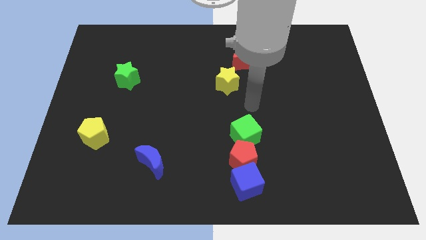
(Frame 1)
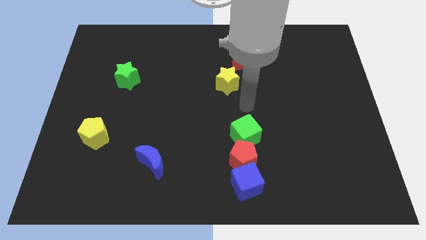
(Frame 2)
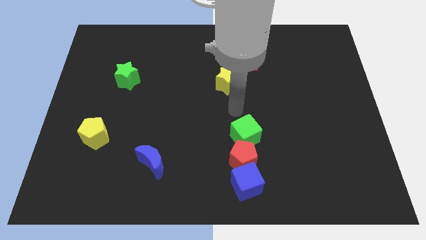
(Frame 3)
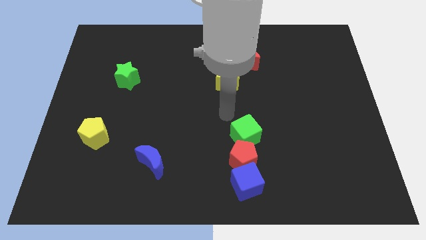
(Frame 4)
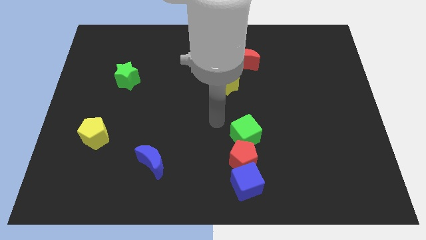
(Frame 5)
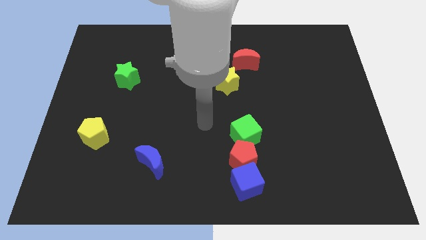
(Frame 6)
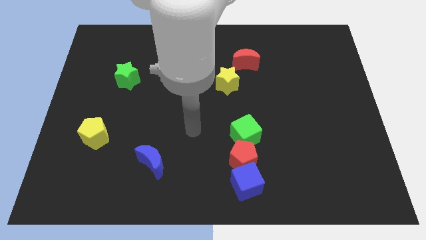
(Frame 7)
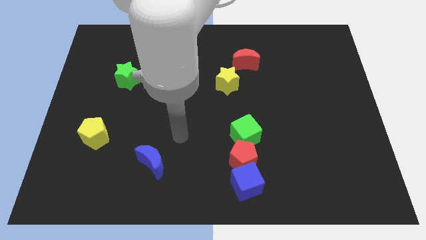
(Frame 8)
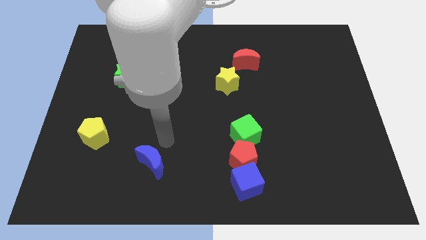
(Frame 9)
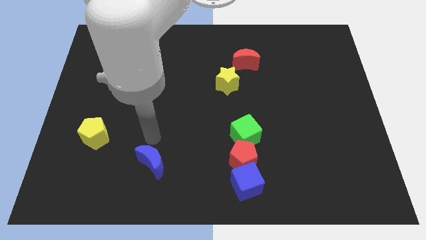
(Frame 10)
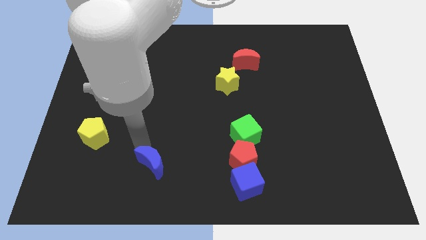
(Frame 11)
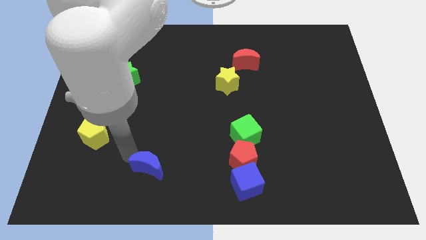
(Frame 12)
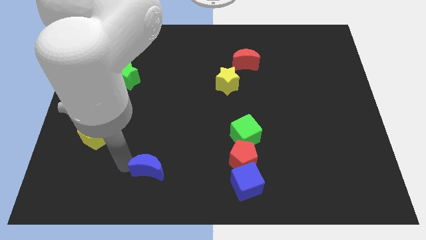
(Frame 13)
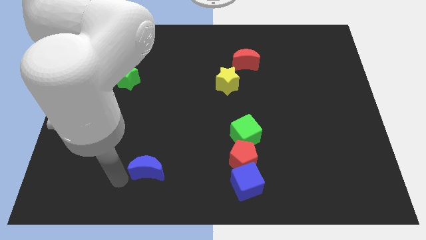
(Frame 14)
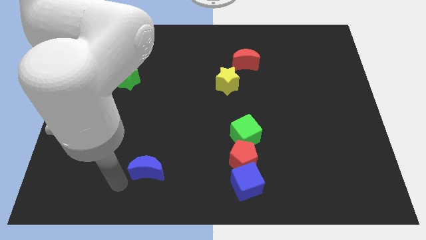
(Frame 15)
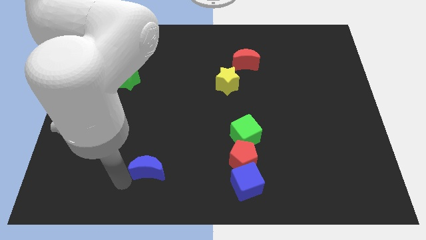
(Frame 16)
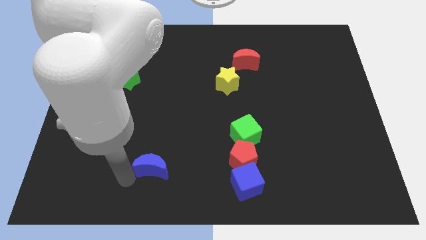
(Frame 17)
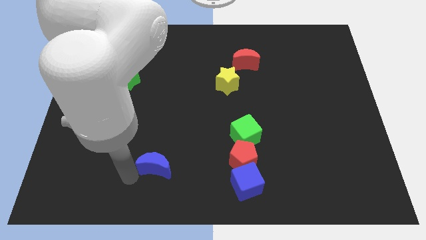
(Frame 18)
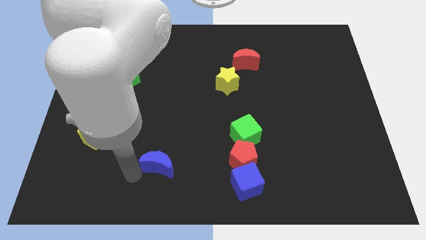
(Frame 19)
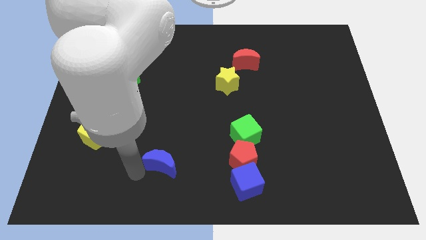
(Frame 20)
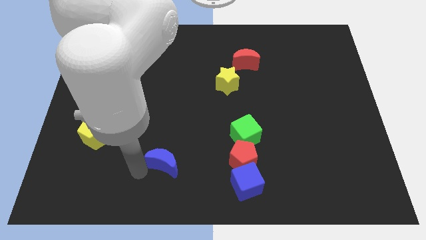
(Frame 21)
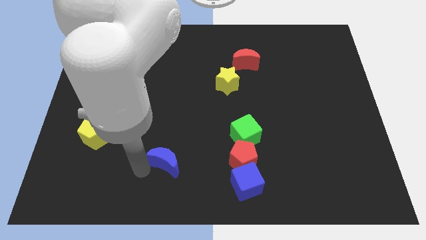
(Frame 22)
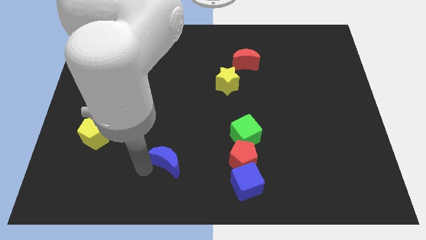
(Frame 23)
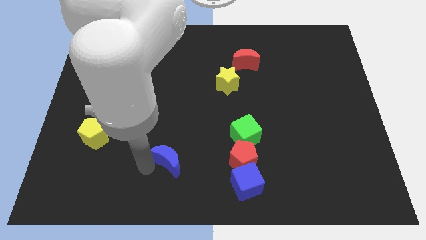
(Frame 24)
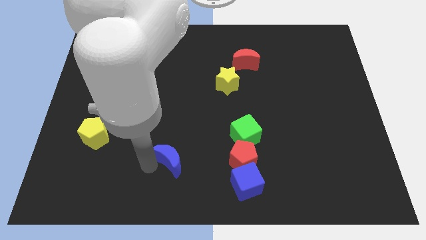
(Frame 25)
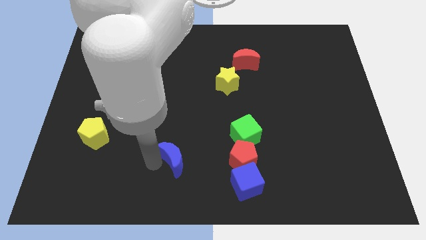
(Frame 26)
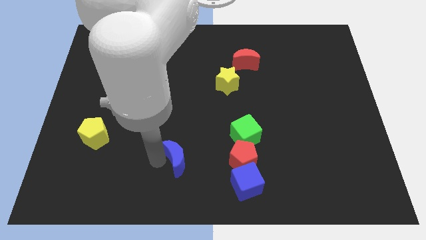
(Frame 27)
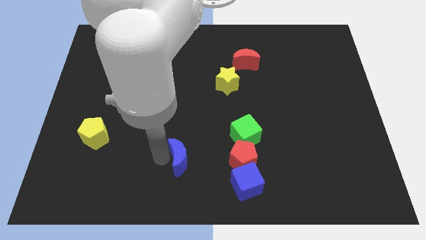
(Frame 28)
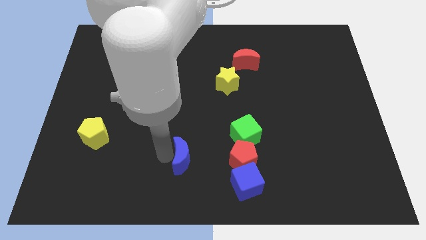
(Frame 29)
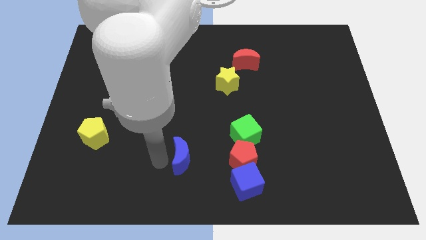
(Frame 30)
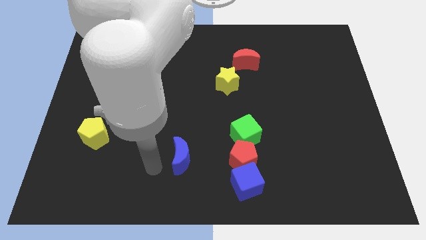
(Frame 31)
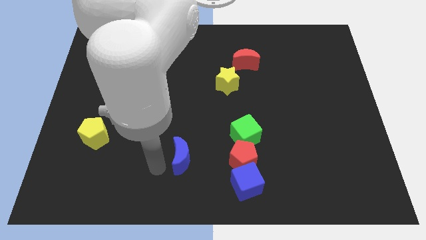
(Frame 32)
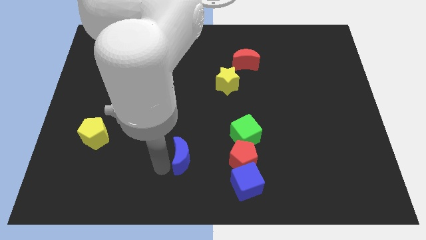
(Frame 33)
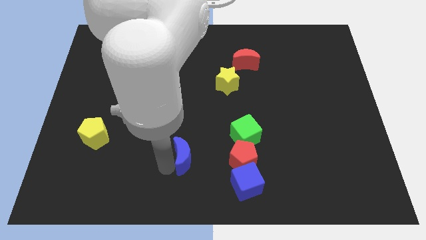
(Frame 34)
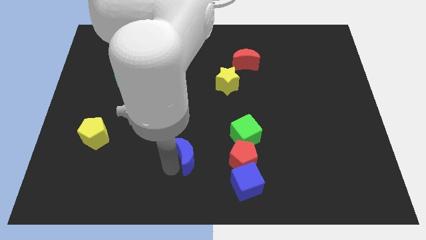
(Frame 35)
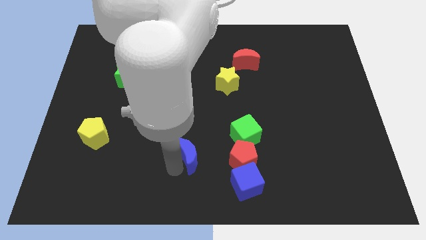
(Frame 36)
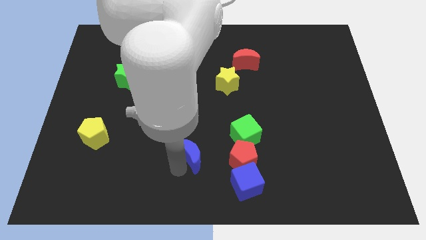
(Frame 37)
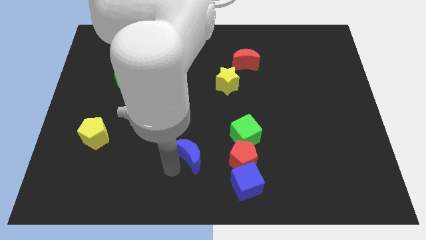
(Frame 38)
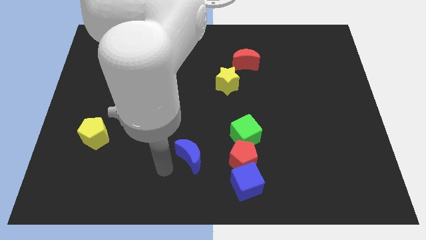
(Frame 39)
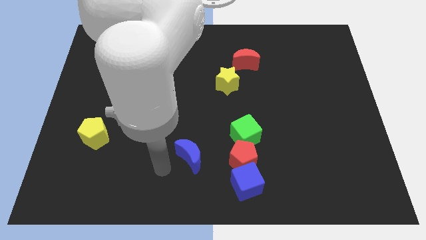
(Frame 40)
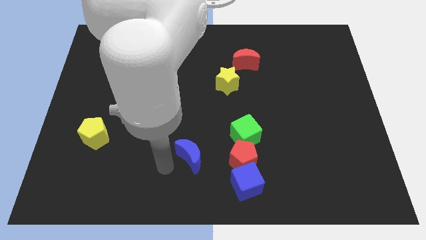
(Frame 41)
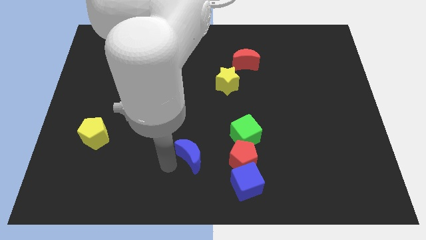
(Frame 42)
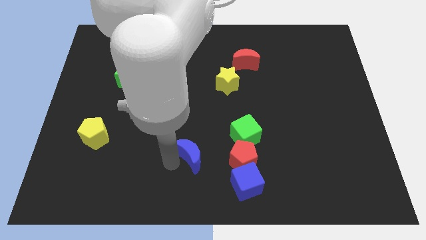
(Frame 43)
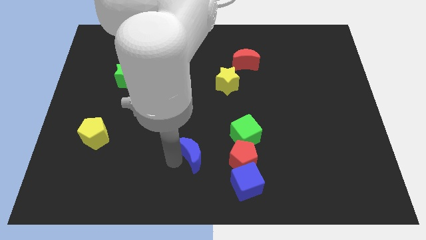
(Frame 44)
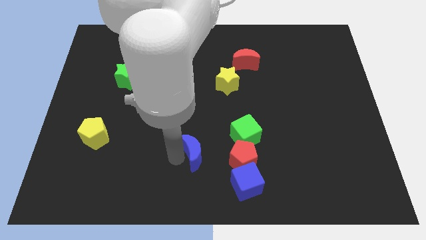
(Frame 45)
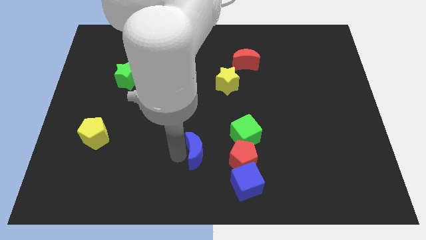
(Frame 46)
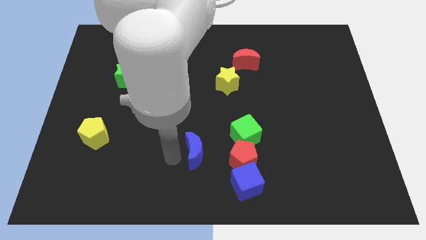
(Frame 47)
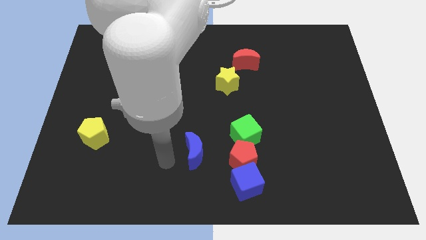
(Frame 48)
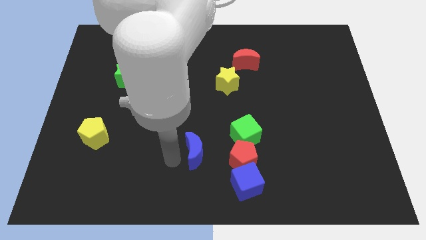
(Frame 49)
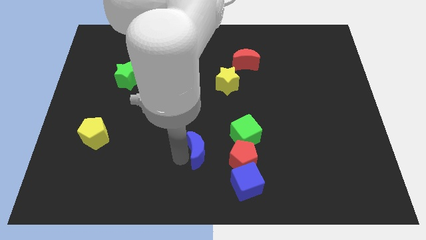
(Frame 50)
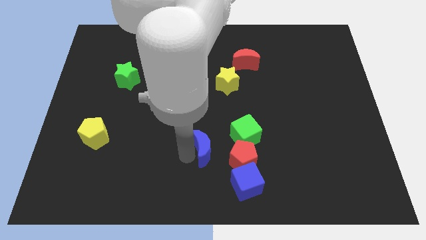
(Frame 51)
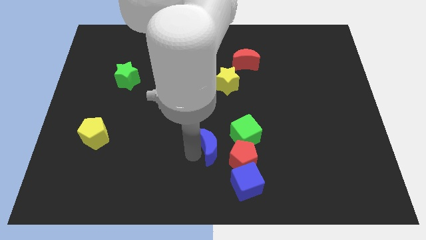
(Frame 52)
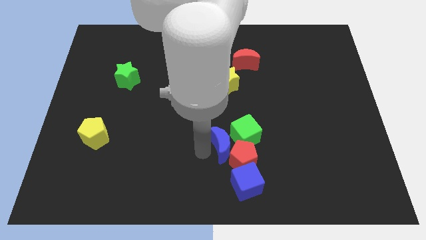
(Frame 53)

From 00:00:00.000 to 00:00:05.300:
push the blue moon towards the green cube

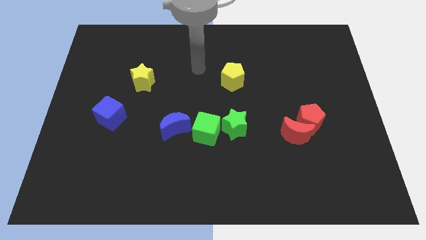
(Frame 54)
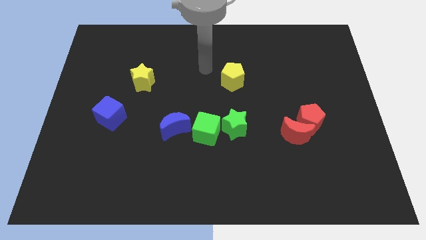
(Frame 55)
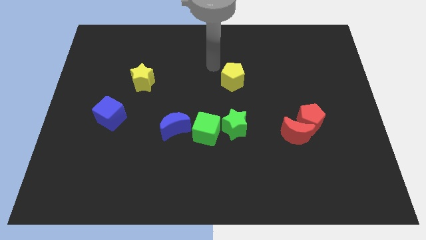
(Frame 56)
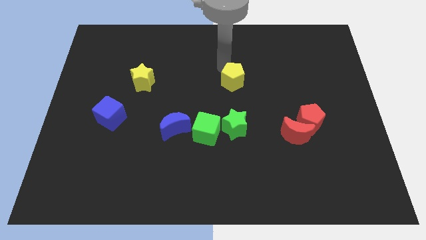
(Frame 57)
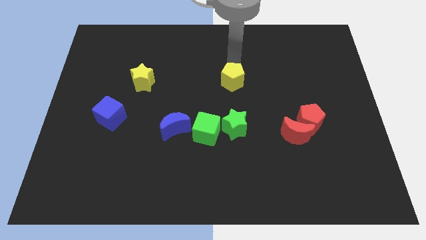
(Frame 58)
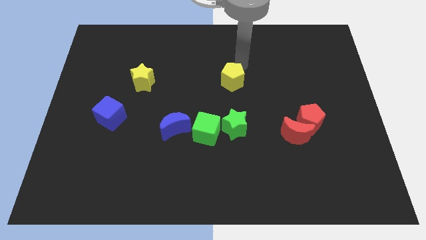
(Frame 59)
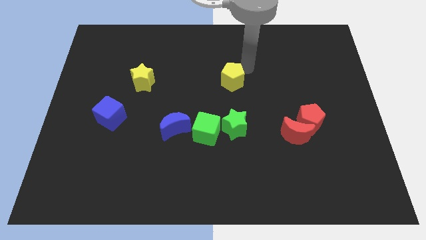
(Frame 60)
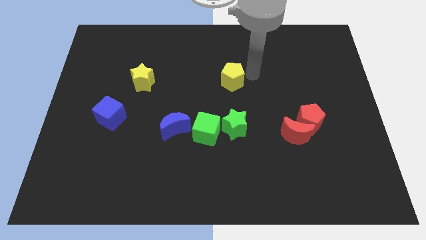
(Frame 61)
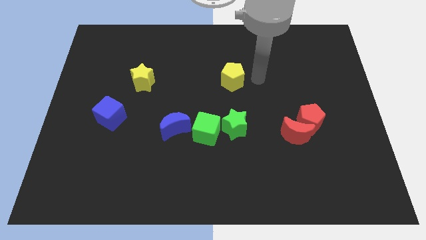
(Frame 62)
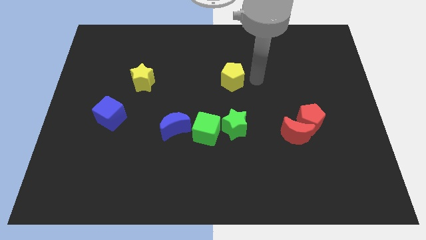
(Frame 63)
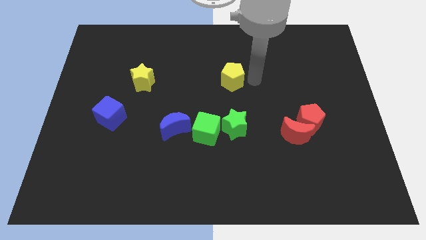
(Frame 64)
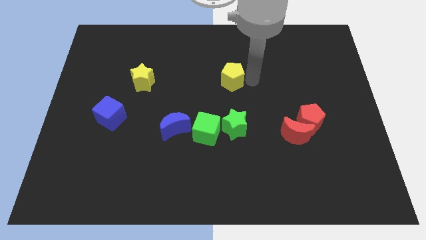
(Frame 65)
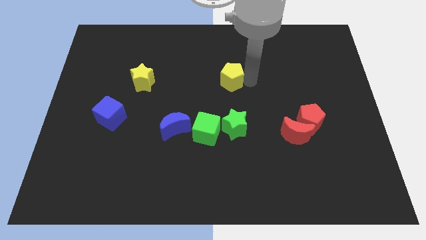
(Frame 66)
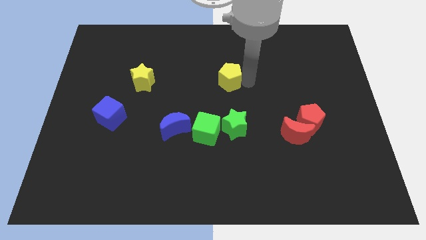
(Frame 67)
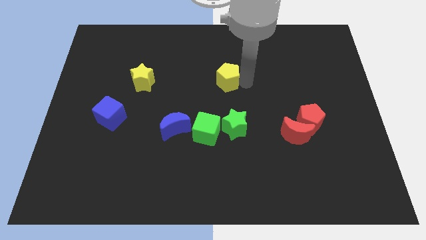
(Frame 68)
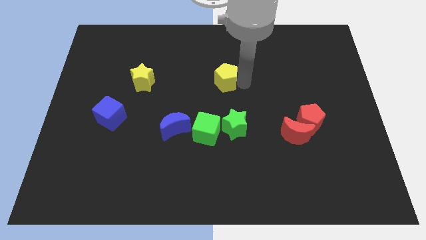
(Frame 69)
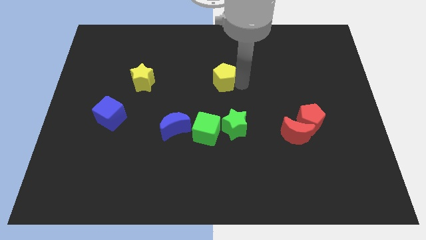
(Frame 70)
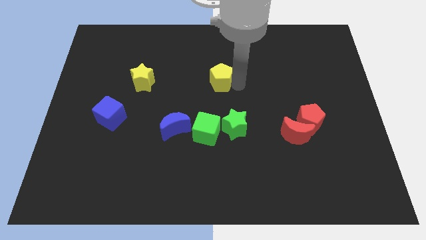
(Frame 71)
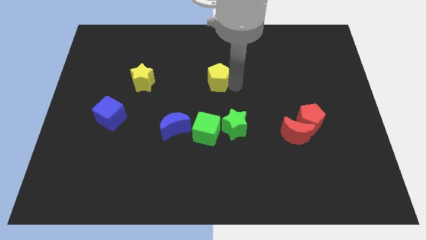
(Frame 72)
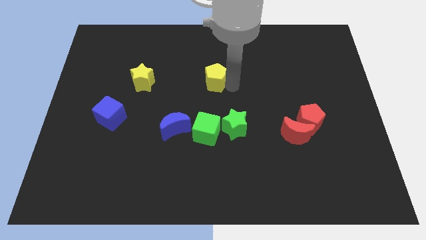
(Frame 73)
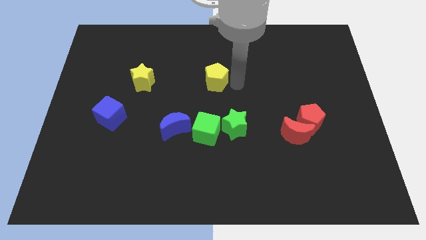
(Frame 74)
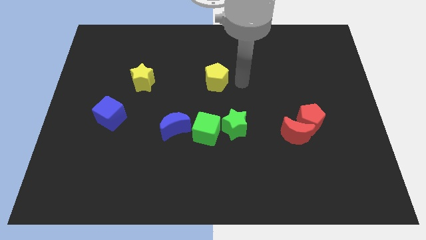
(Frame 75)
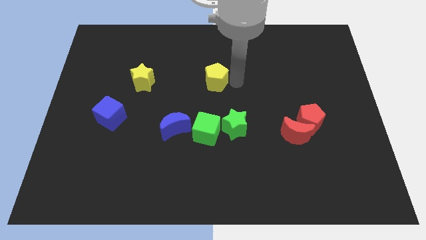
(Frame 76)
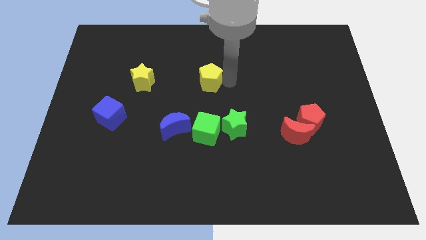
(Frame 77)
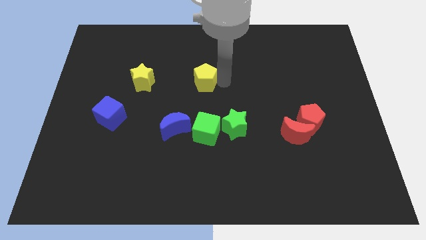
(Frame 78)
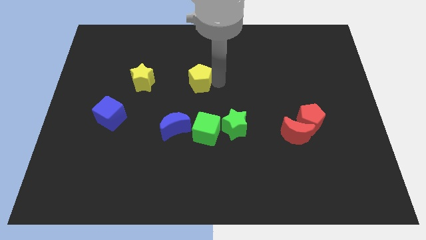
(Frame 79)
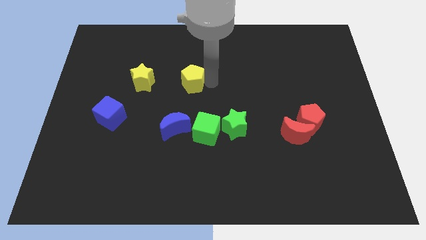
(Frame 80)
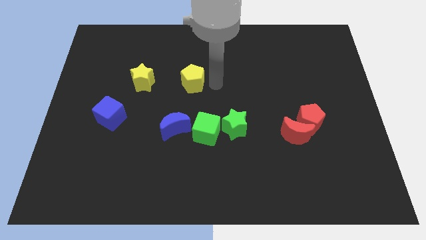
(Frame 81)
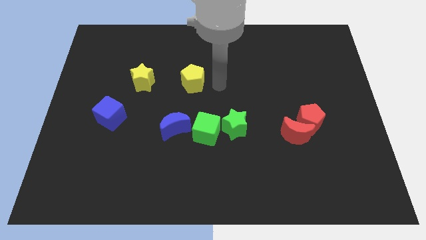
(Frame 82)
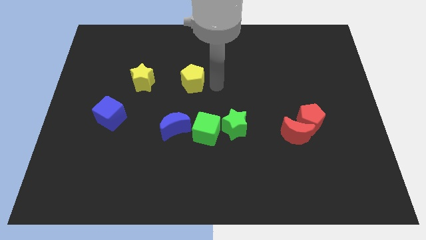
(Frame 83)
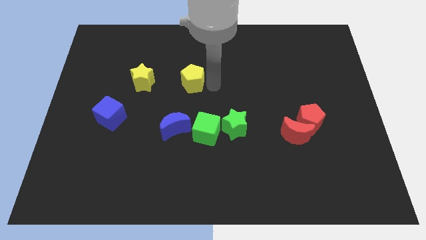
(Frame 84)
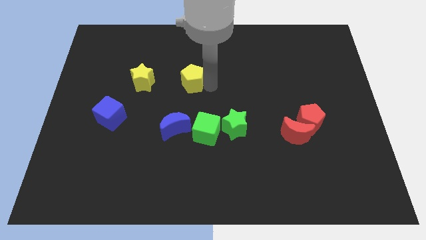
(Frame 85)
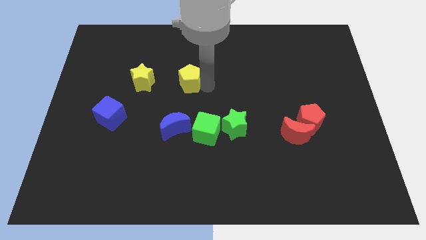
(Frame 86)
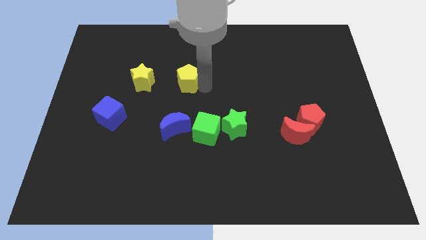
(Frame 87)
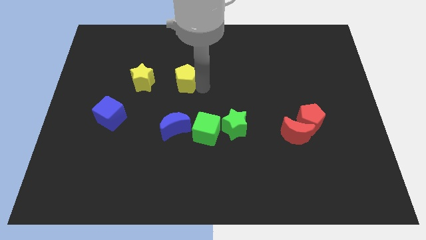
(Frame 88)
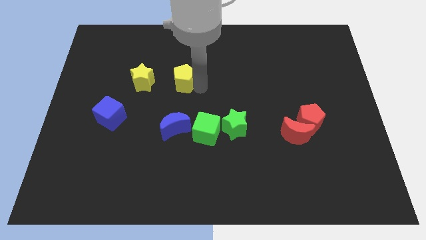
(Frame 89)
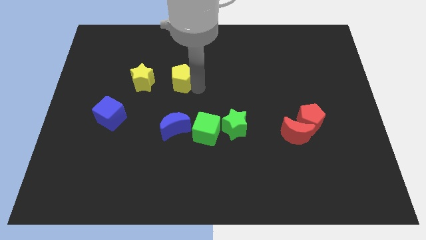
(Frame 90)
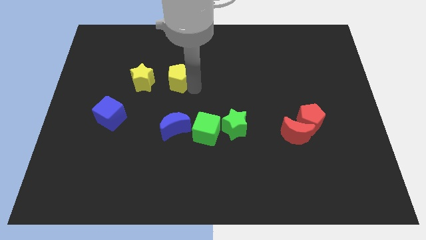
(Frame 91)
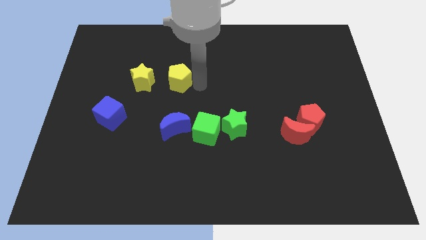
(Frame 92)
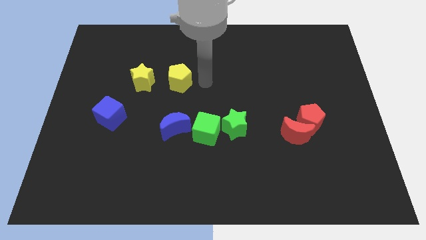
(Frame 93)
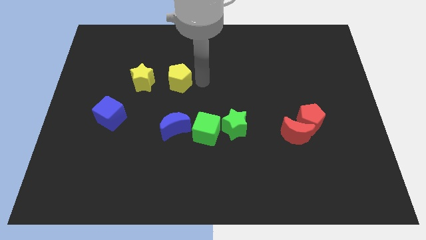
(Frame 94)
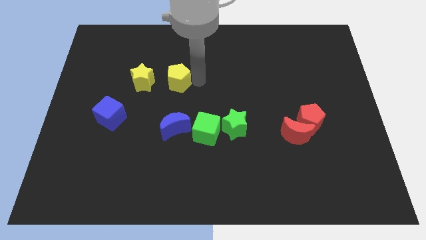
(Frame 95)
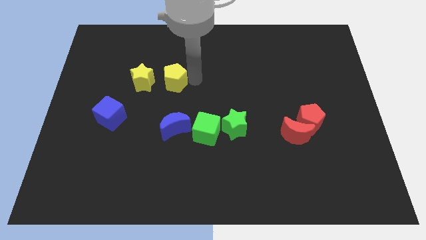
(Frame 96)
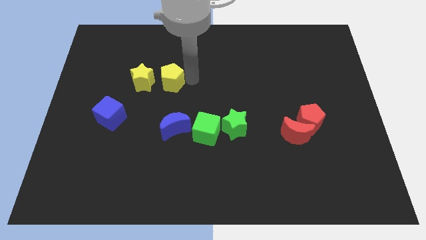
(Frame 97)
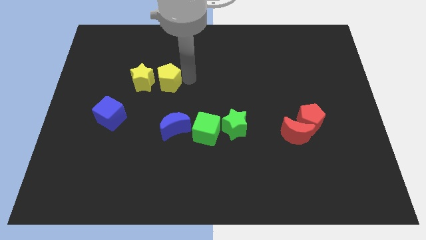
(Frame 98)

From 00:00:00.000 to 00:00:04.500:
slide the yellow pentagon to the yellow star
